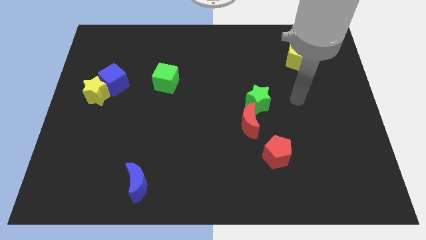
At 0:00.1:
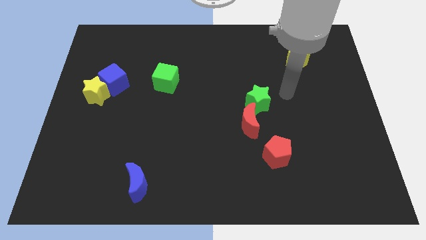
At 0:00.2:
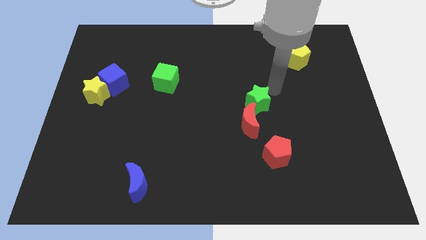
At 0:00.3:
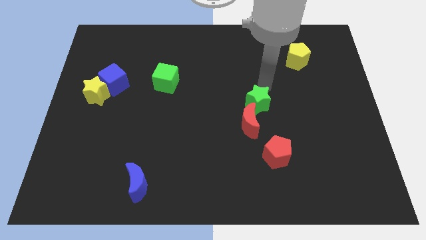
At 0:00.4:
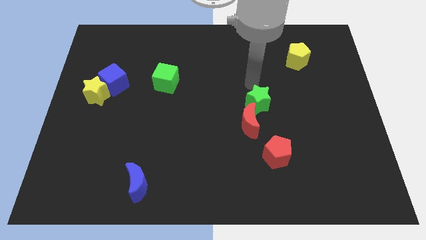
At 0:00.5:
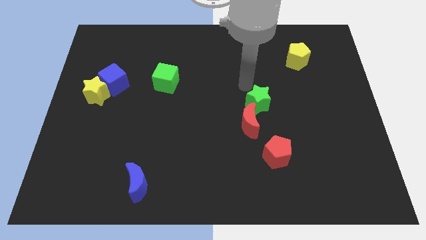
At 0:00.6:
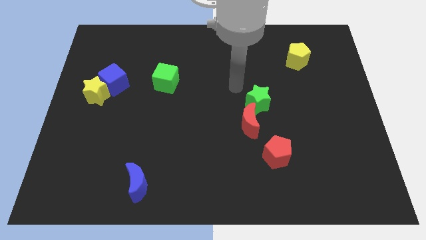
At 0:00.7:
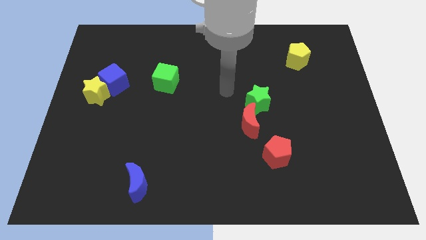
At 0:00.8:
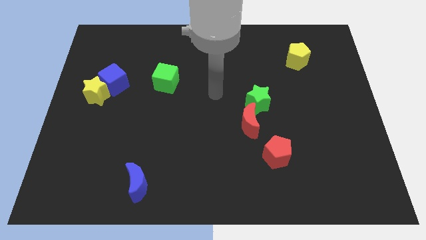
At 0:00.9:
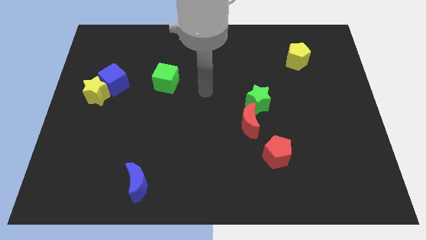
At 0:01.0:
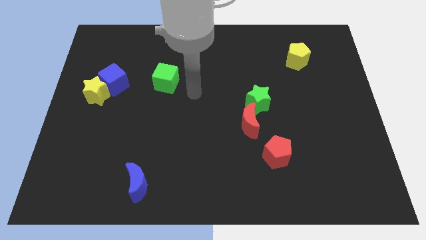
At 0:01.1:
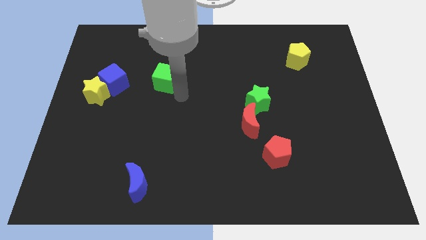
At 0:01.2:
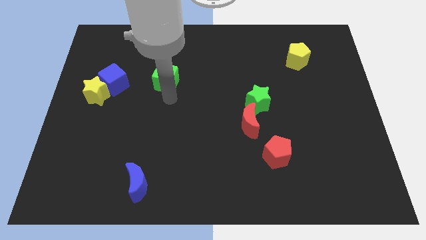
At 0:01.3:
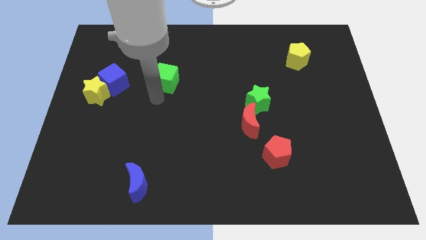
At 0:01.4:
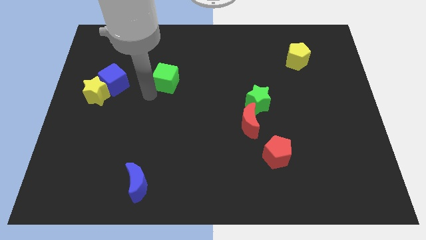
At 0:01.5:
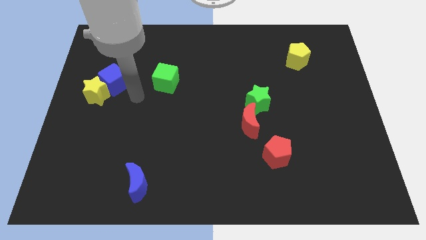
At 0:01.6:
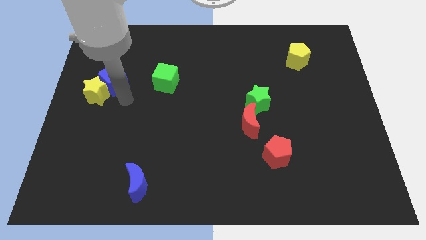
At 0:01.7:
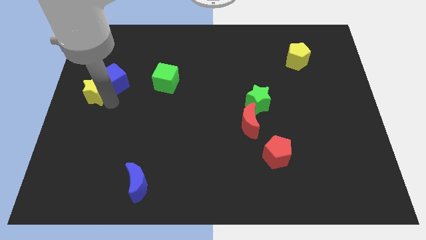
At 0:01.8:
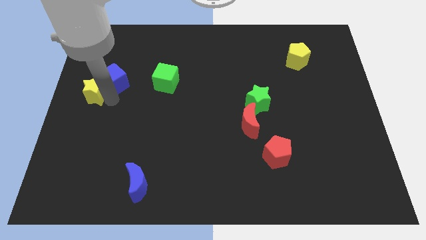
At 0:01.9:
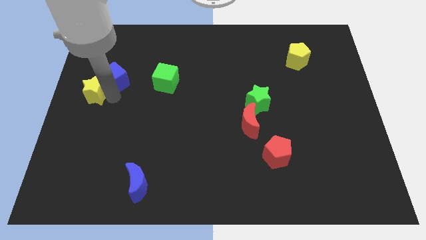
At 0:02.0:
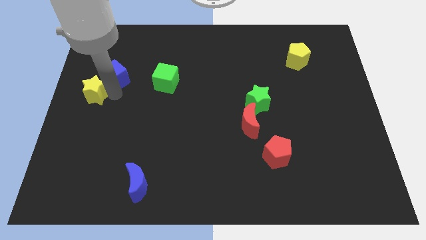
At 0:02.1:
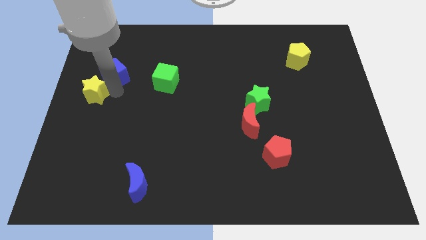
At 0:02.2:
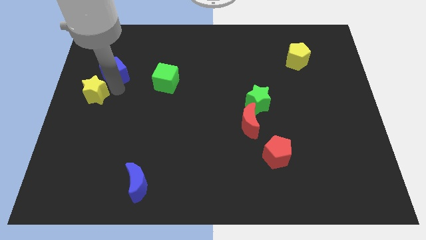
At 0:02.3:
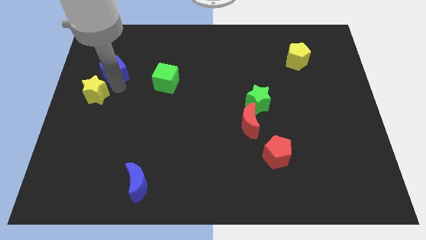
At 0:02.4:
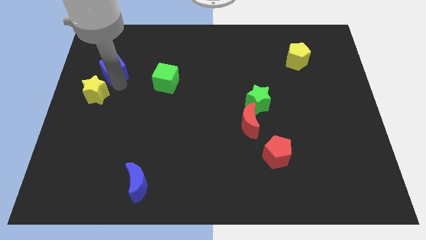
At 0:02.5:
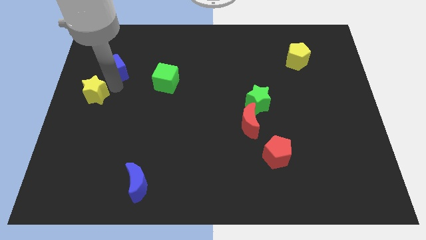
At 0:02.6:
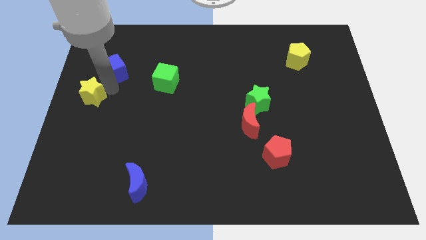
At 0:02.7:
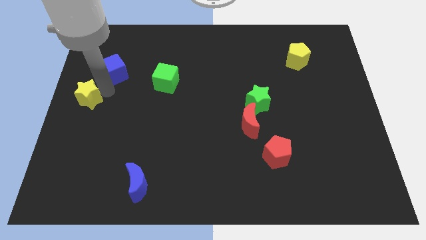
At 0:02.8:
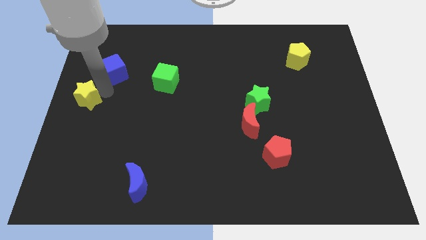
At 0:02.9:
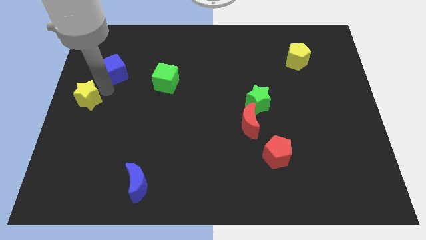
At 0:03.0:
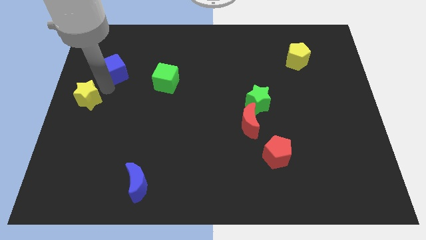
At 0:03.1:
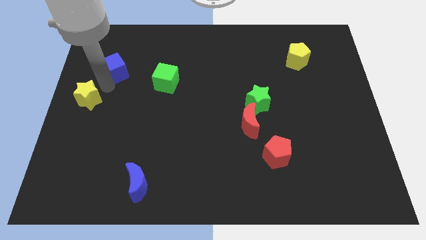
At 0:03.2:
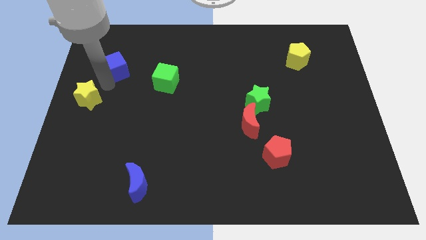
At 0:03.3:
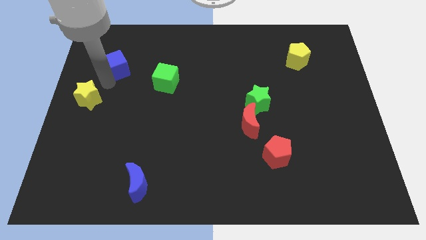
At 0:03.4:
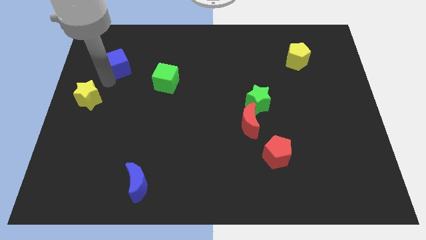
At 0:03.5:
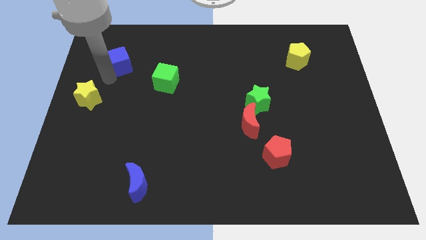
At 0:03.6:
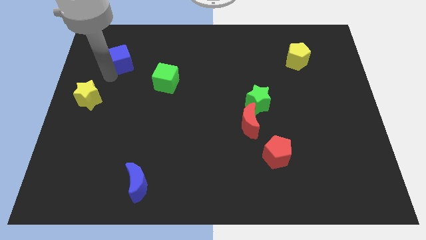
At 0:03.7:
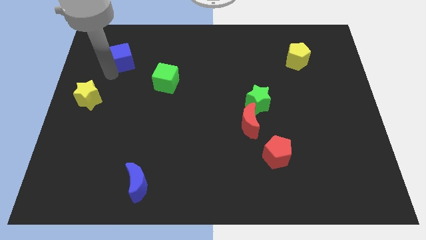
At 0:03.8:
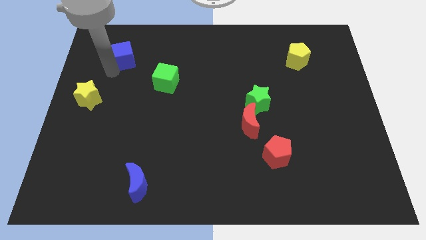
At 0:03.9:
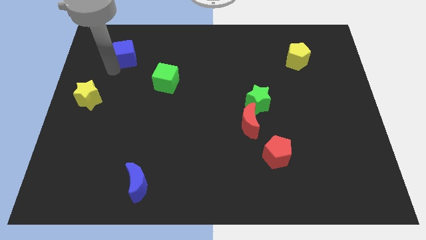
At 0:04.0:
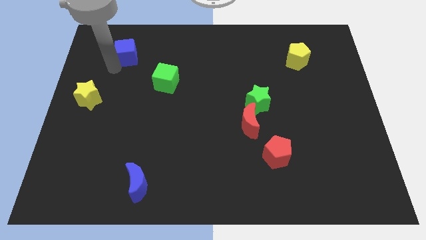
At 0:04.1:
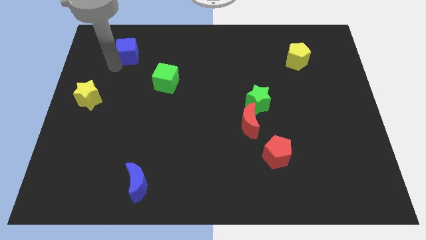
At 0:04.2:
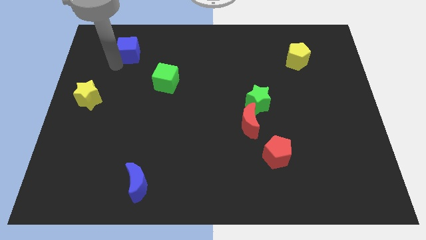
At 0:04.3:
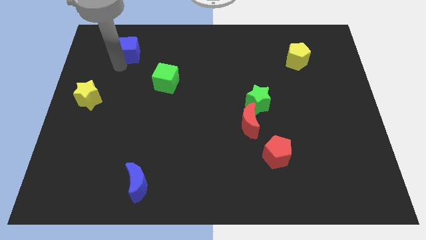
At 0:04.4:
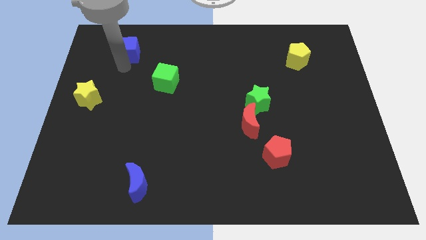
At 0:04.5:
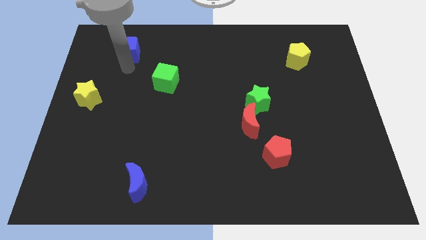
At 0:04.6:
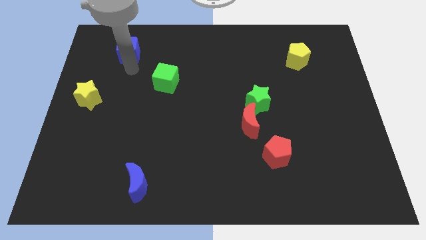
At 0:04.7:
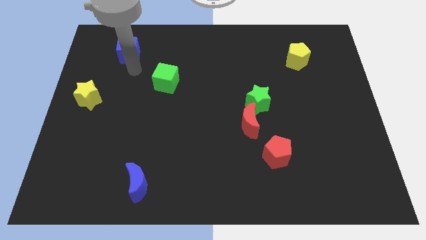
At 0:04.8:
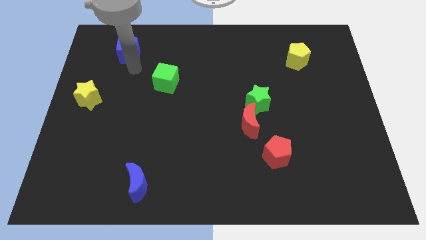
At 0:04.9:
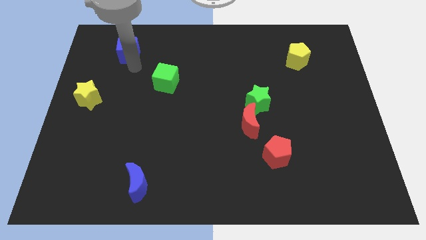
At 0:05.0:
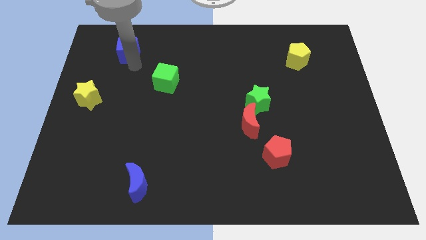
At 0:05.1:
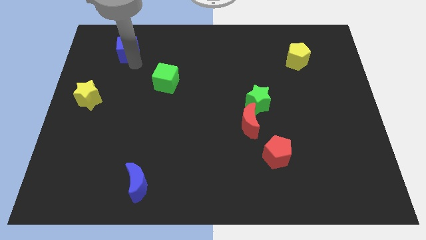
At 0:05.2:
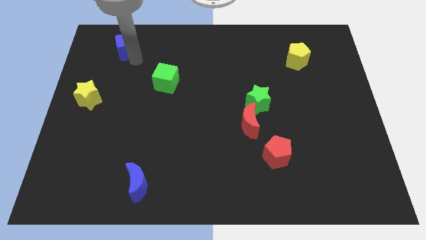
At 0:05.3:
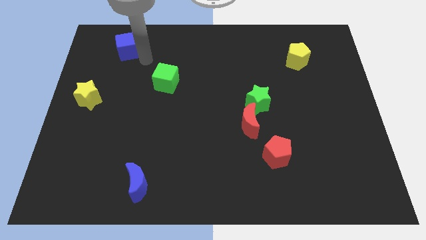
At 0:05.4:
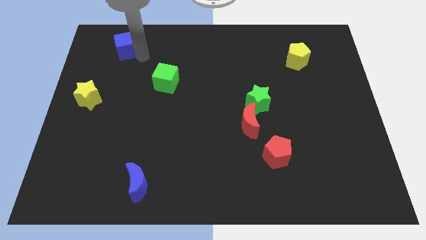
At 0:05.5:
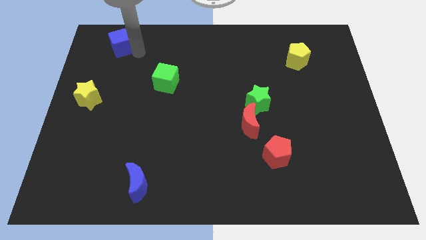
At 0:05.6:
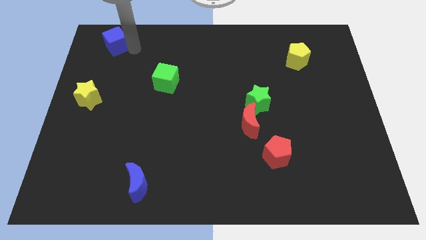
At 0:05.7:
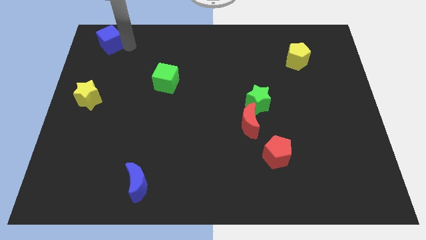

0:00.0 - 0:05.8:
put the blue cube to the top left
